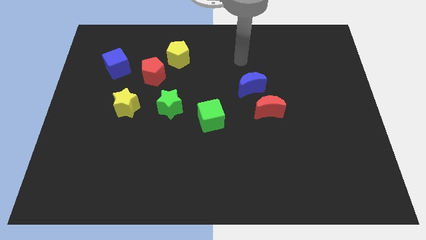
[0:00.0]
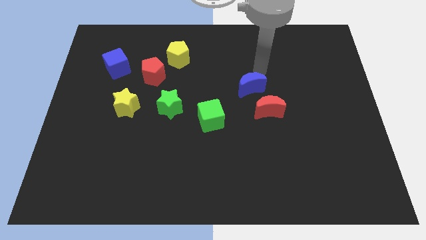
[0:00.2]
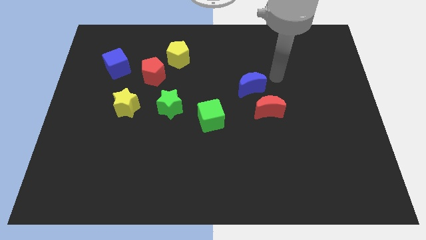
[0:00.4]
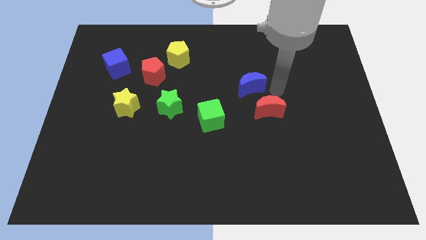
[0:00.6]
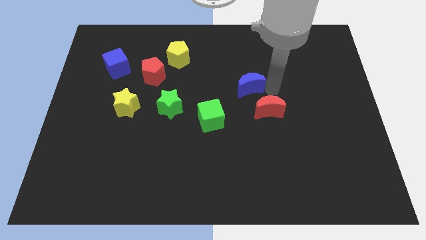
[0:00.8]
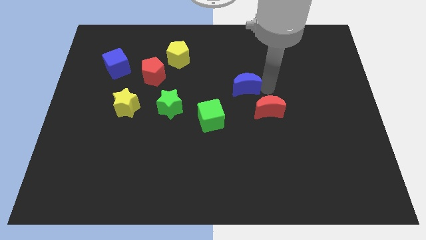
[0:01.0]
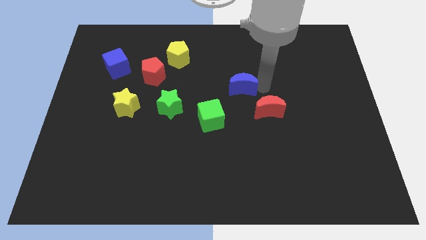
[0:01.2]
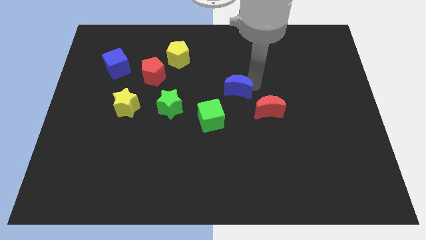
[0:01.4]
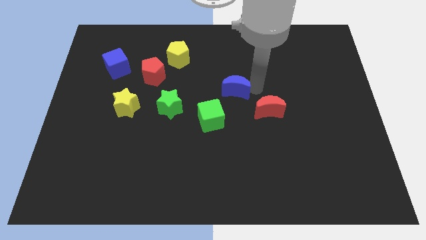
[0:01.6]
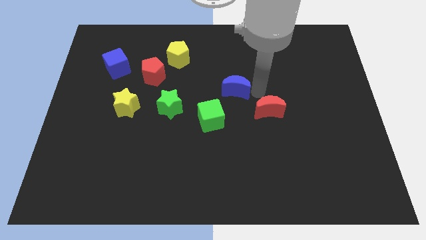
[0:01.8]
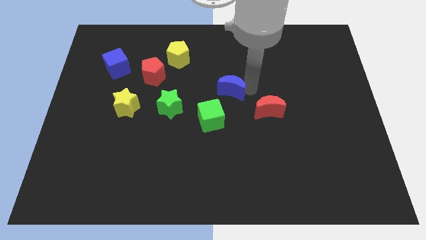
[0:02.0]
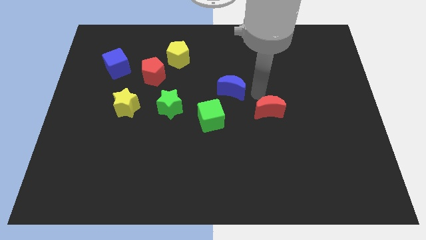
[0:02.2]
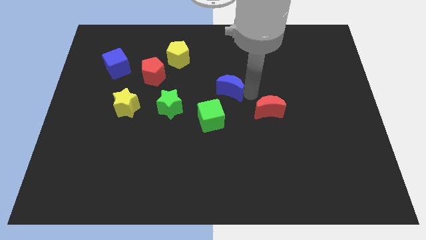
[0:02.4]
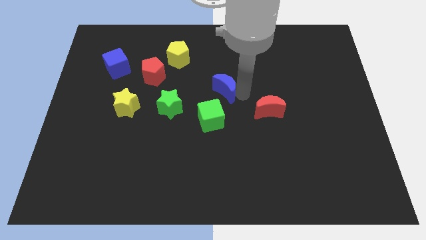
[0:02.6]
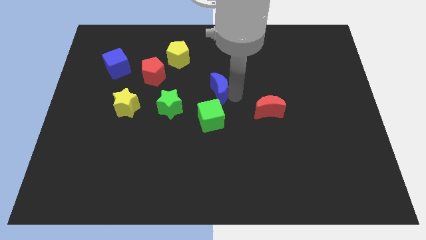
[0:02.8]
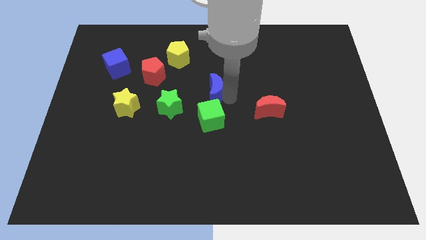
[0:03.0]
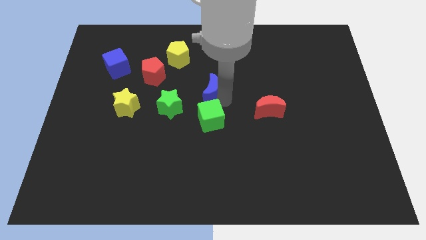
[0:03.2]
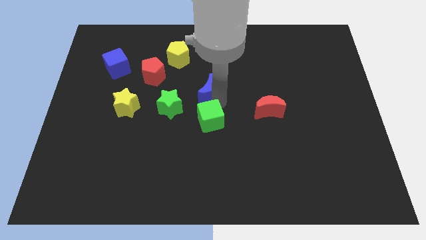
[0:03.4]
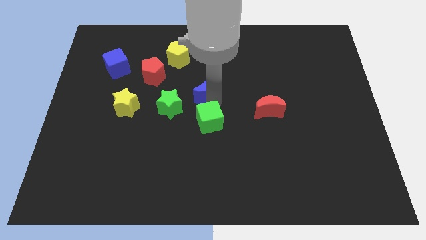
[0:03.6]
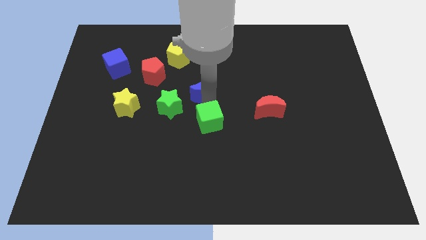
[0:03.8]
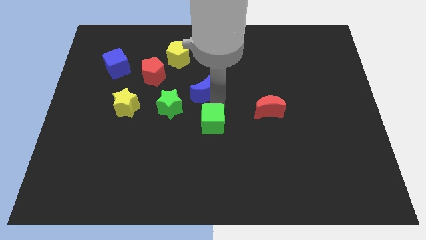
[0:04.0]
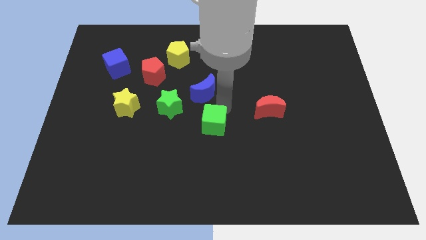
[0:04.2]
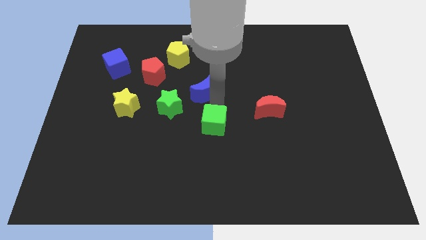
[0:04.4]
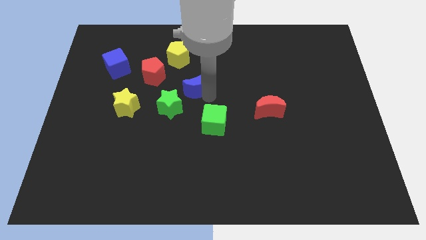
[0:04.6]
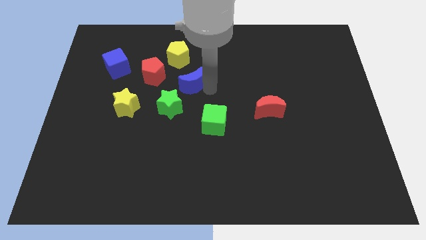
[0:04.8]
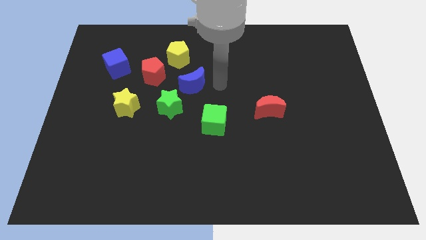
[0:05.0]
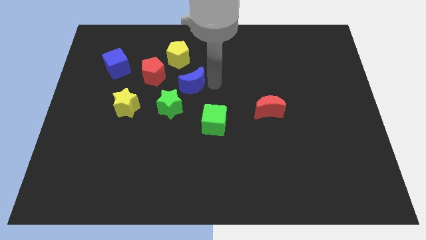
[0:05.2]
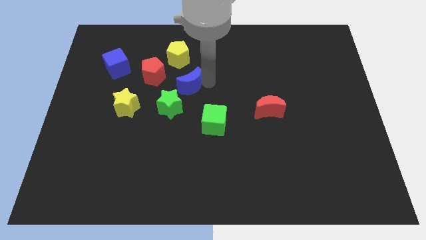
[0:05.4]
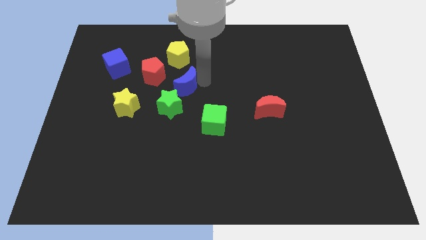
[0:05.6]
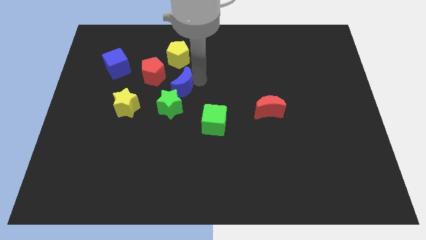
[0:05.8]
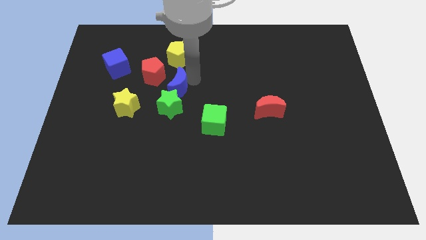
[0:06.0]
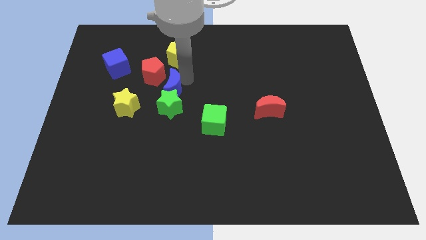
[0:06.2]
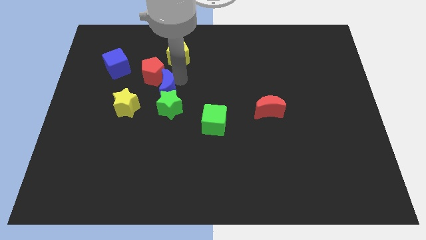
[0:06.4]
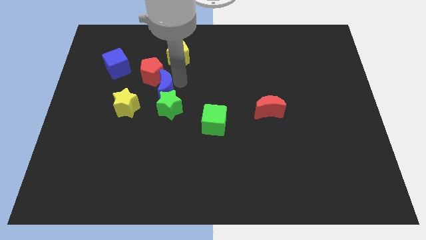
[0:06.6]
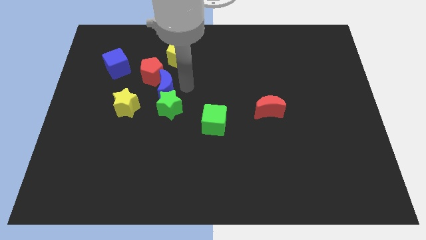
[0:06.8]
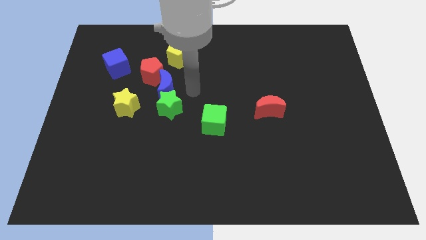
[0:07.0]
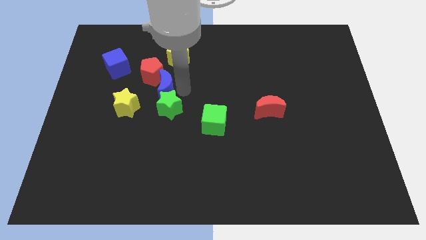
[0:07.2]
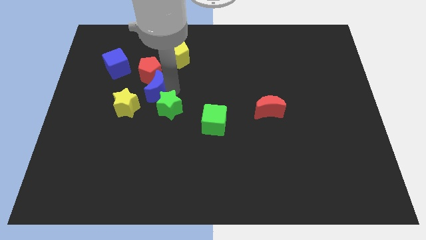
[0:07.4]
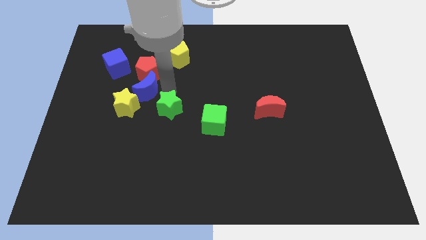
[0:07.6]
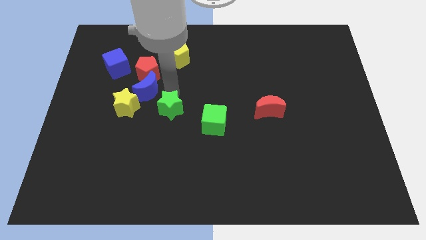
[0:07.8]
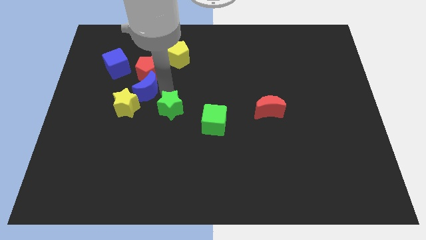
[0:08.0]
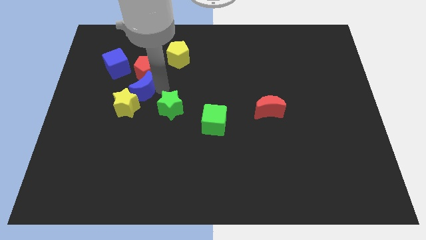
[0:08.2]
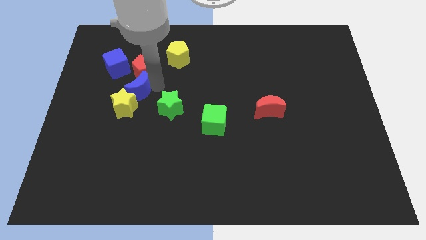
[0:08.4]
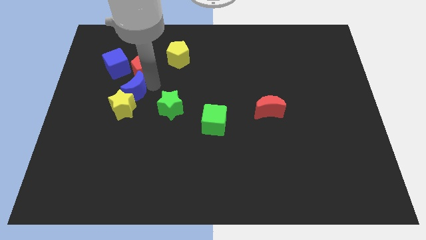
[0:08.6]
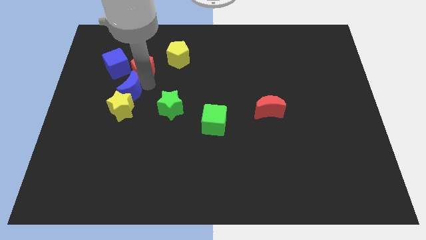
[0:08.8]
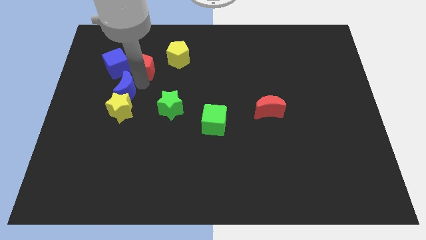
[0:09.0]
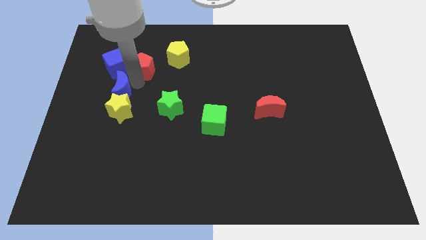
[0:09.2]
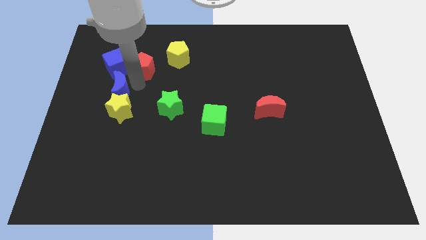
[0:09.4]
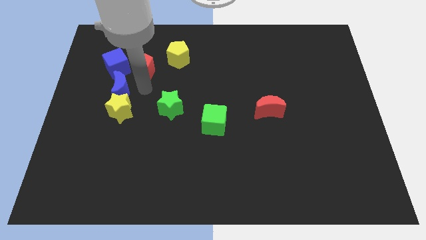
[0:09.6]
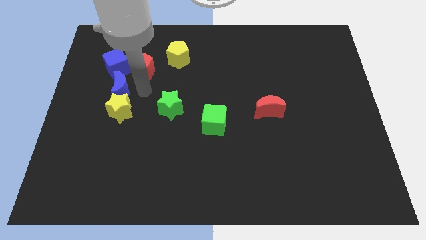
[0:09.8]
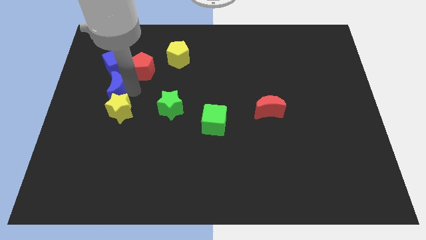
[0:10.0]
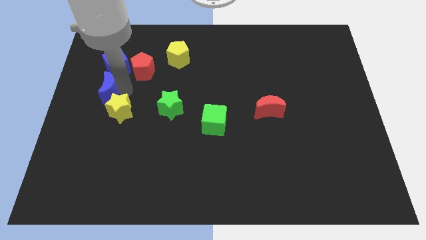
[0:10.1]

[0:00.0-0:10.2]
put the blue moon to the center left
